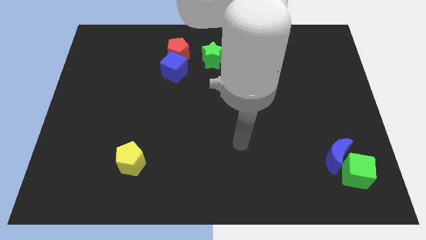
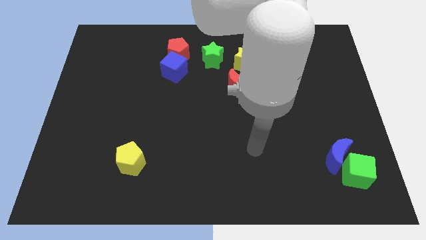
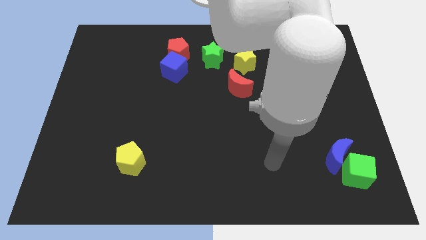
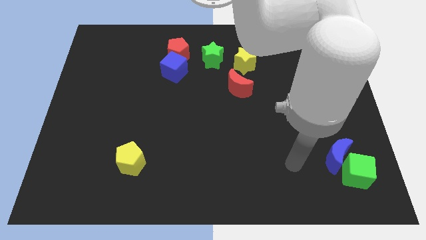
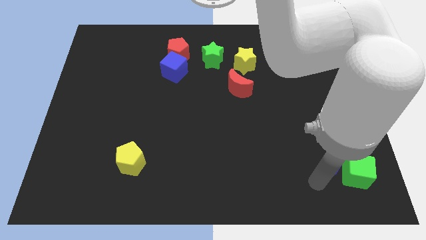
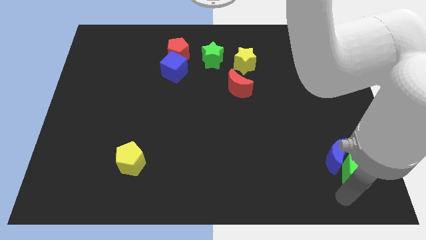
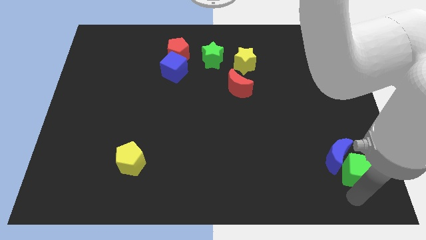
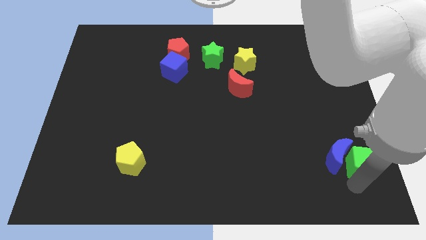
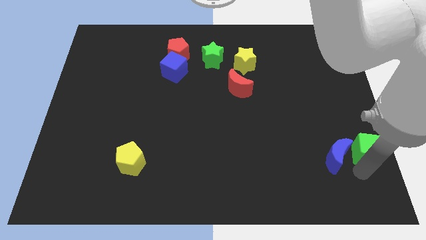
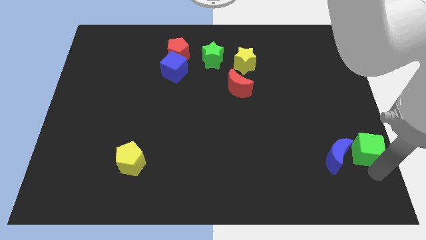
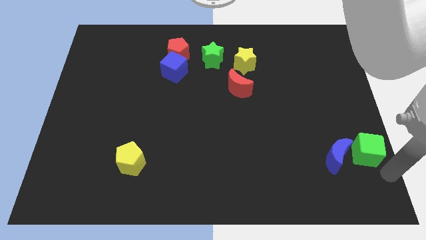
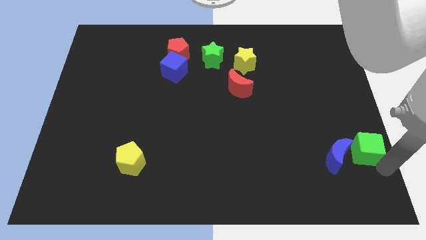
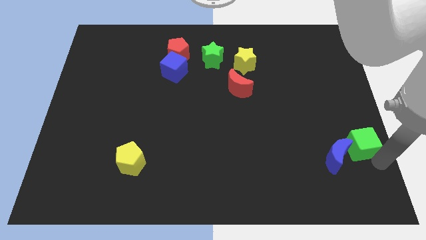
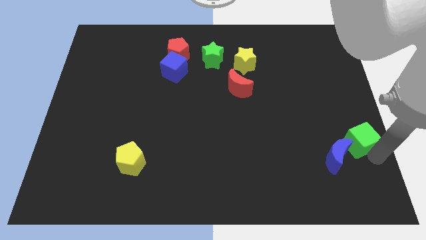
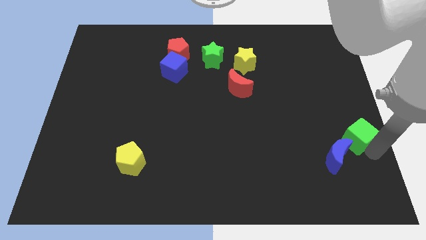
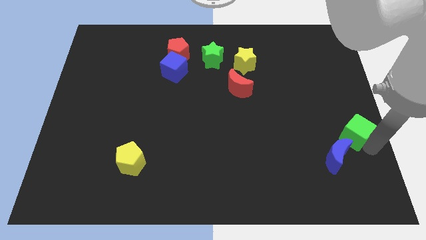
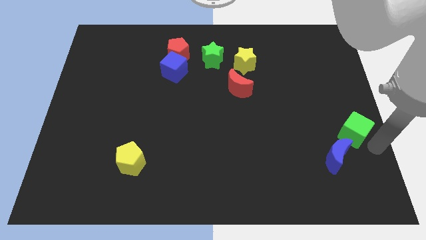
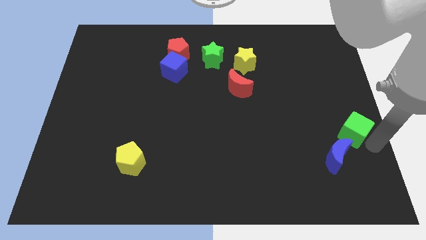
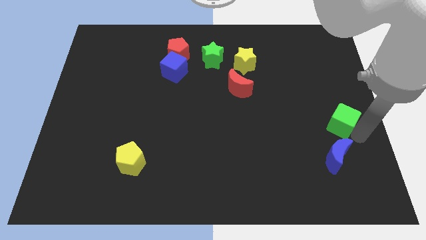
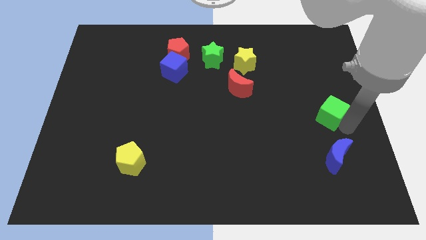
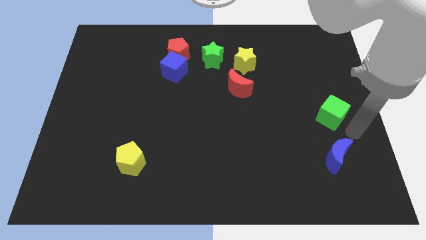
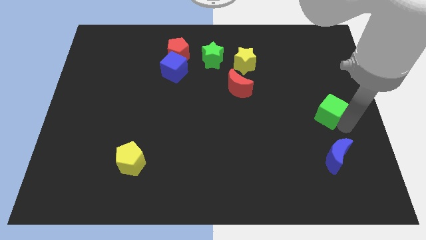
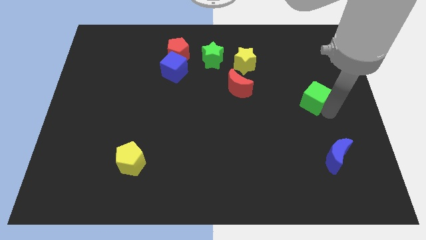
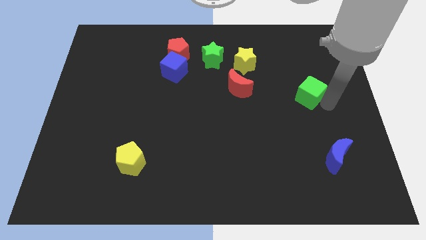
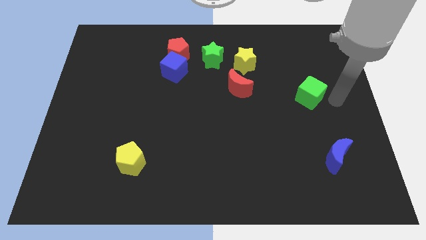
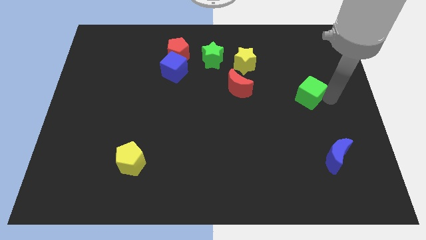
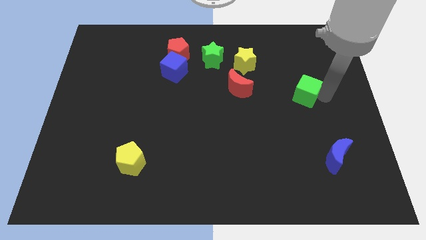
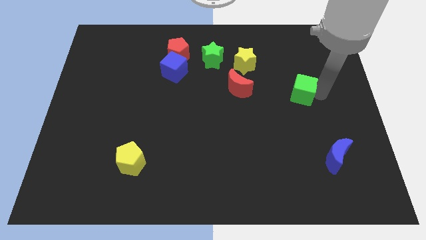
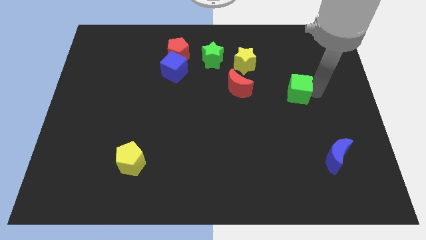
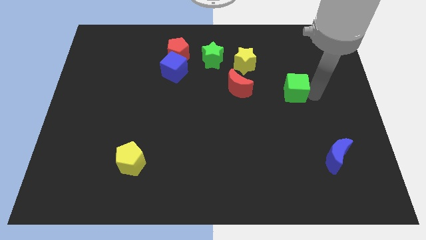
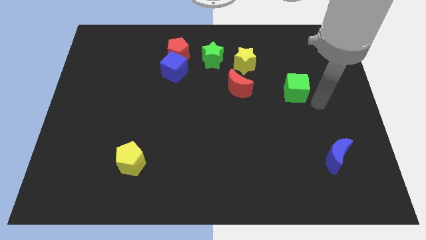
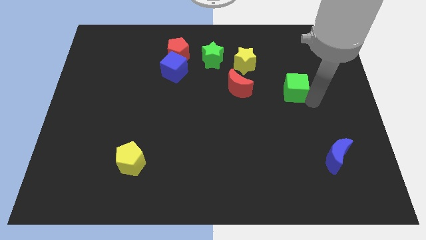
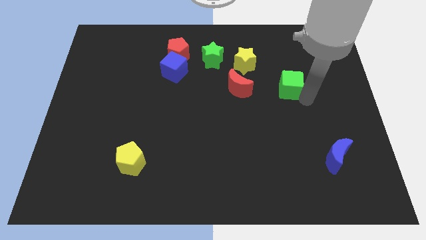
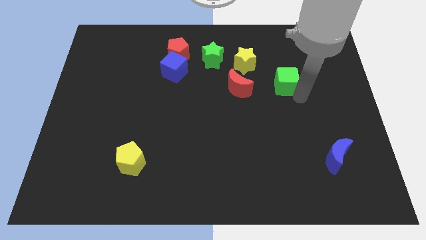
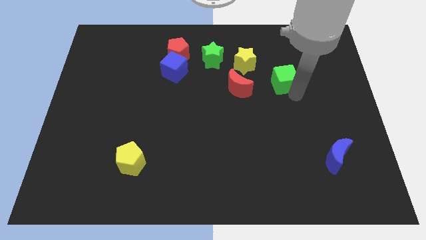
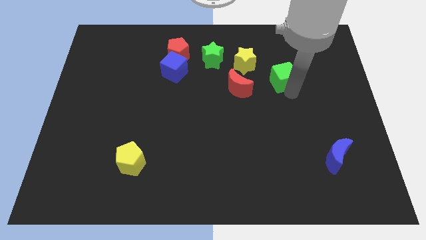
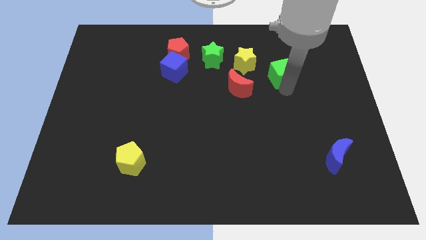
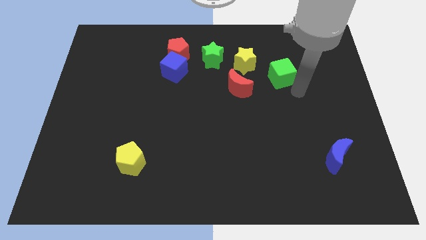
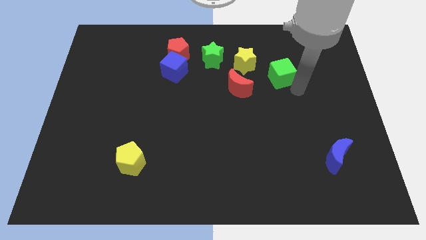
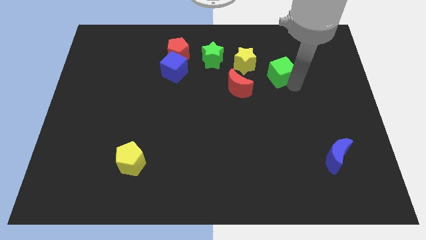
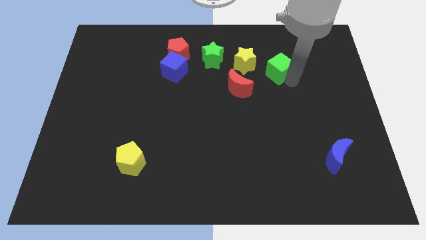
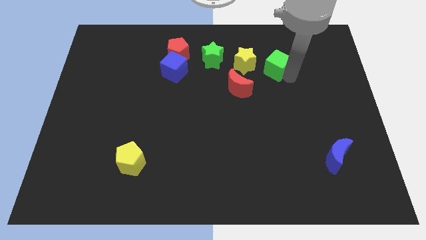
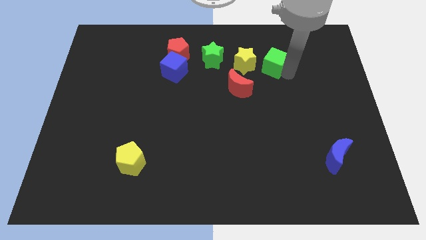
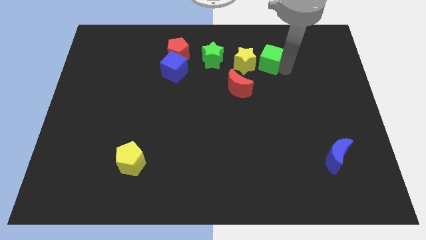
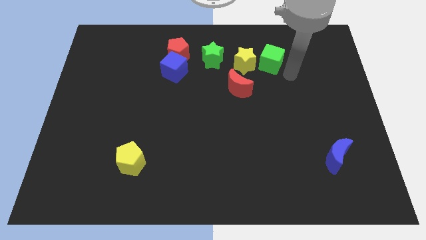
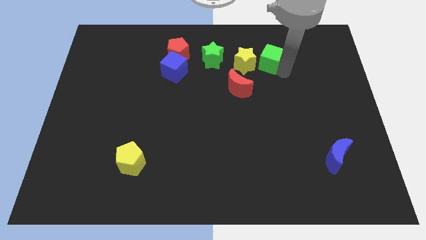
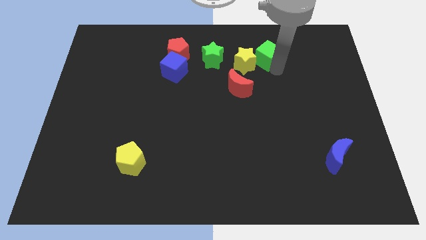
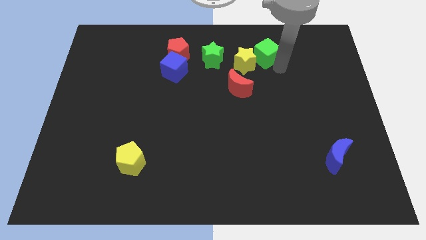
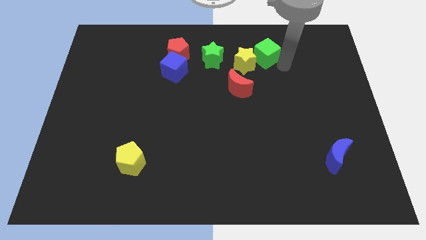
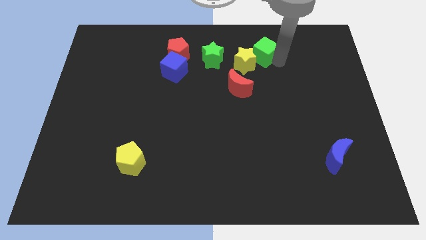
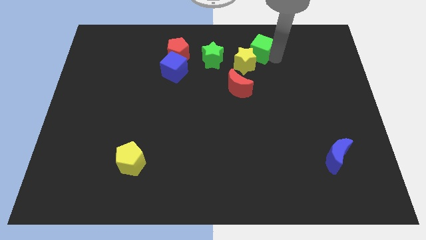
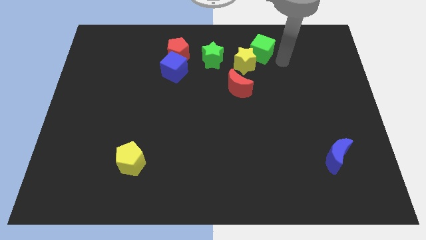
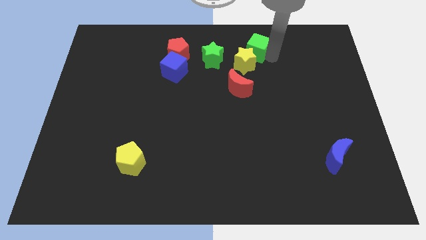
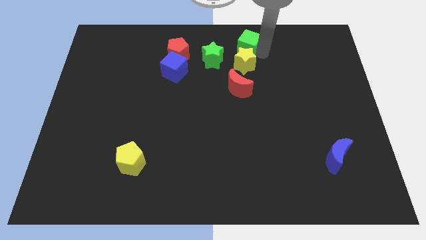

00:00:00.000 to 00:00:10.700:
put the green cube to the top
